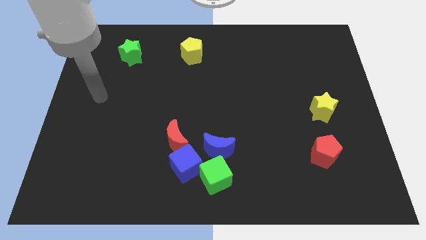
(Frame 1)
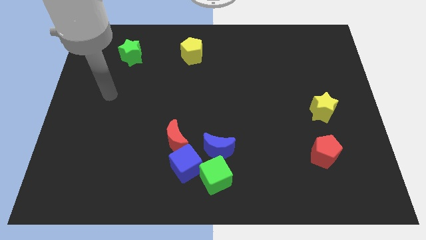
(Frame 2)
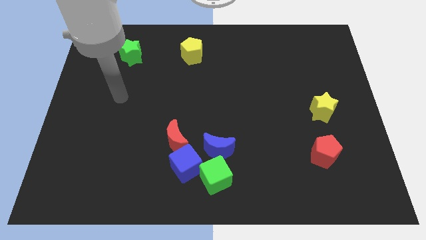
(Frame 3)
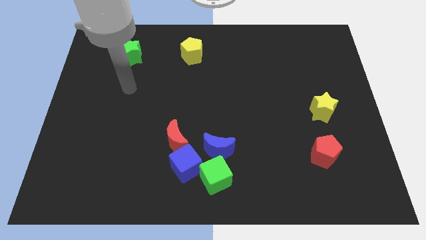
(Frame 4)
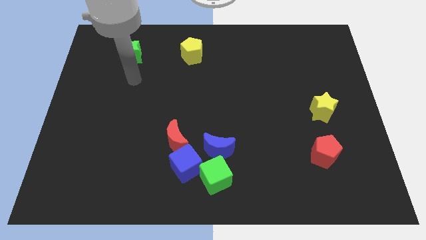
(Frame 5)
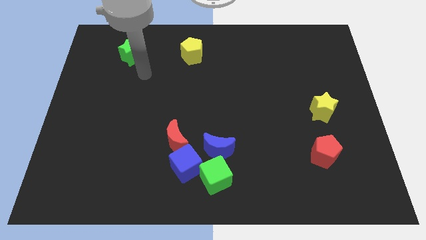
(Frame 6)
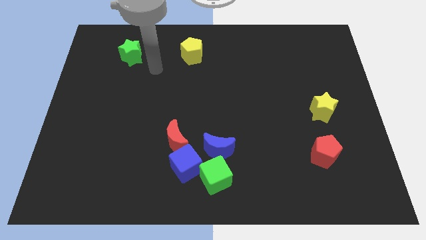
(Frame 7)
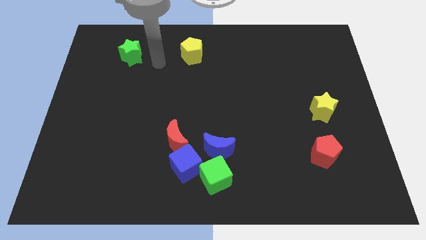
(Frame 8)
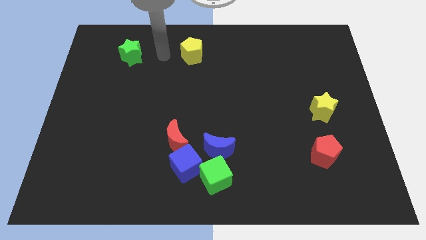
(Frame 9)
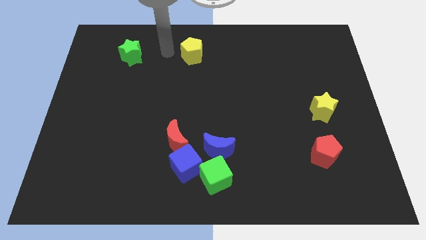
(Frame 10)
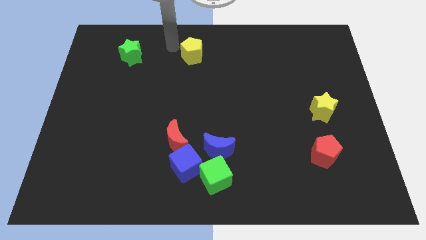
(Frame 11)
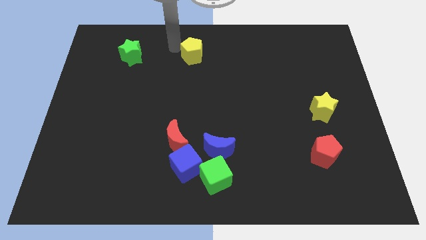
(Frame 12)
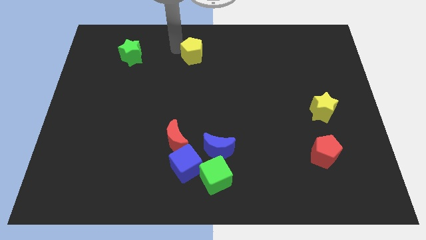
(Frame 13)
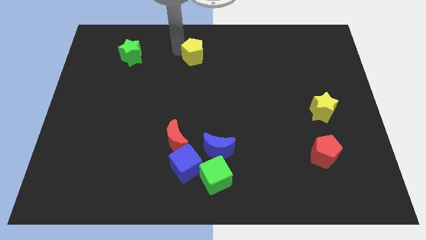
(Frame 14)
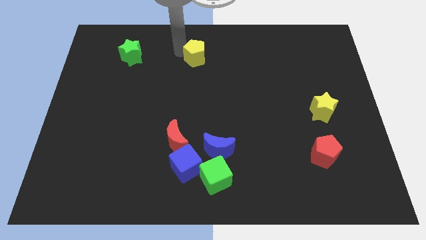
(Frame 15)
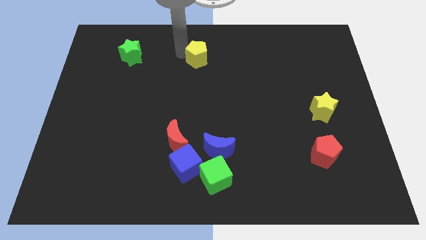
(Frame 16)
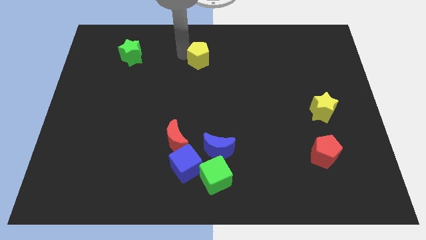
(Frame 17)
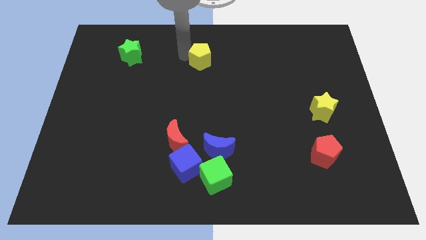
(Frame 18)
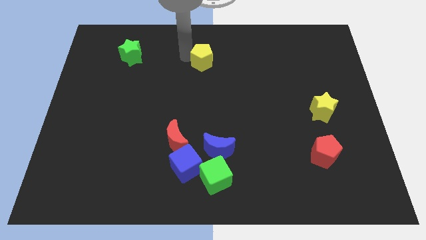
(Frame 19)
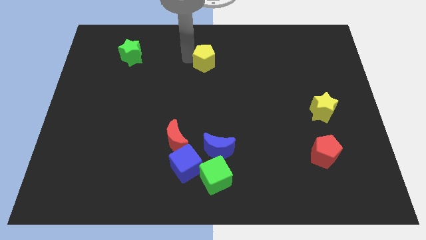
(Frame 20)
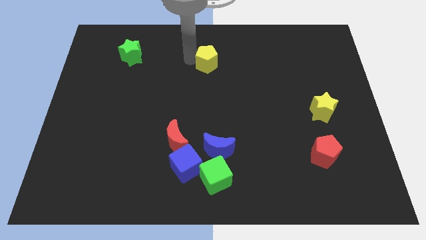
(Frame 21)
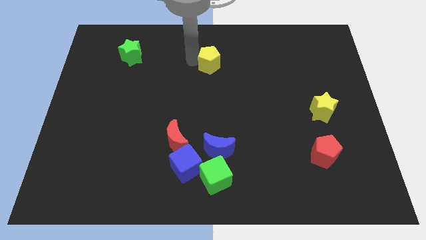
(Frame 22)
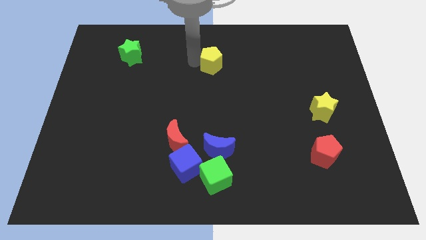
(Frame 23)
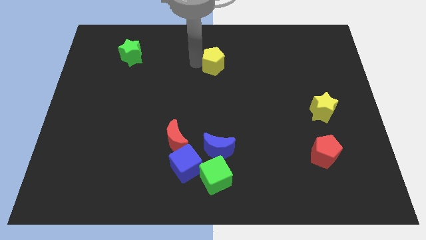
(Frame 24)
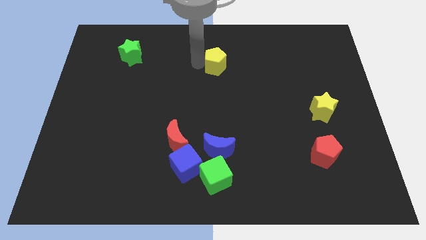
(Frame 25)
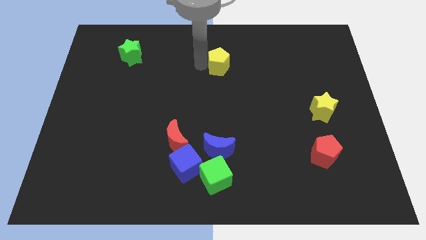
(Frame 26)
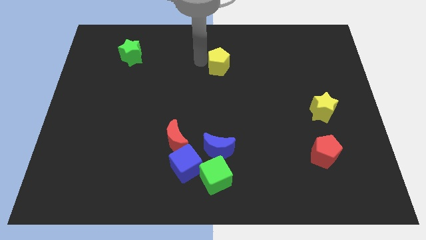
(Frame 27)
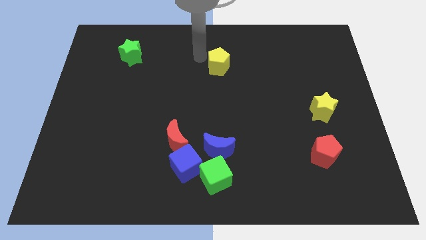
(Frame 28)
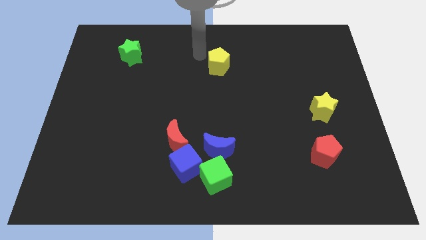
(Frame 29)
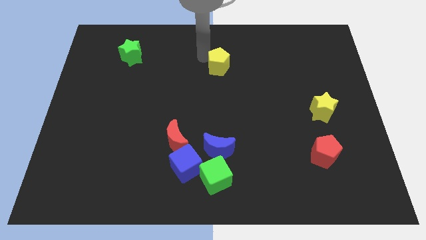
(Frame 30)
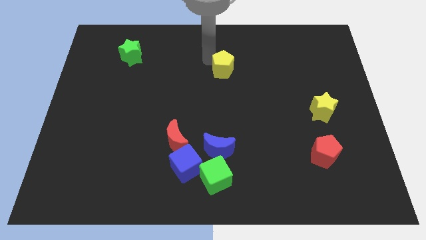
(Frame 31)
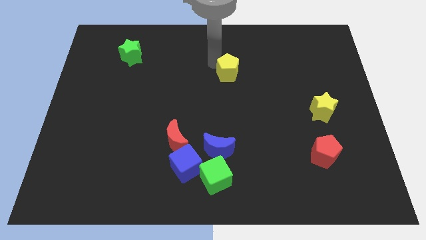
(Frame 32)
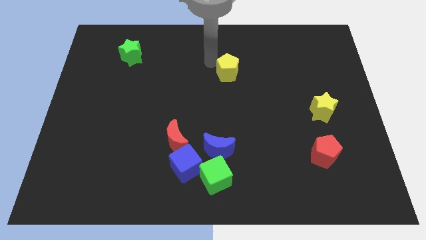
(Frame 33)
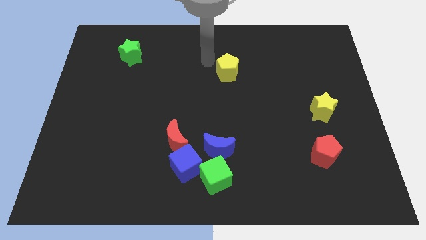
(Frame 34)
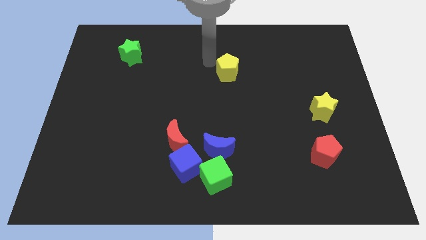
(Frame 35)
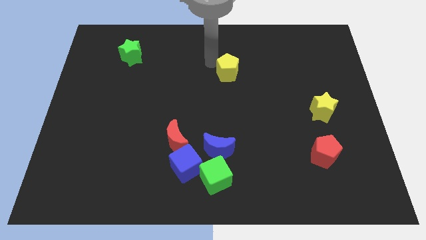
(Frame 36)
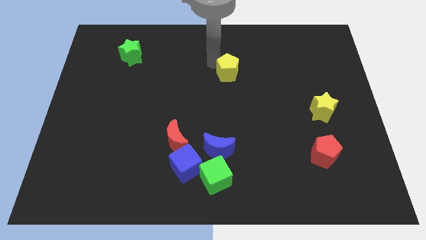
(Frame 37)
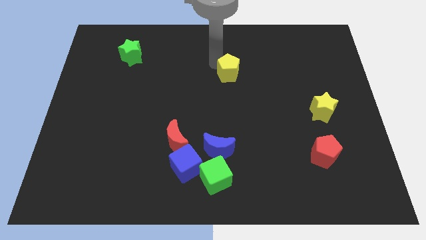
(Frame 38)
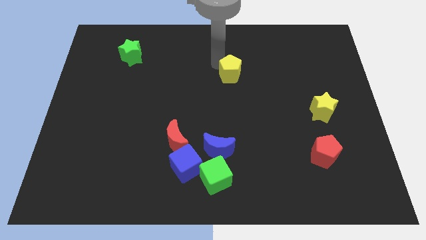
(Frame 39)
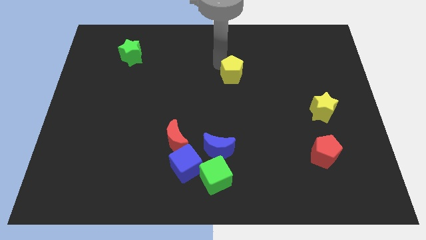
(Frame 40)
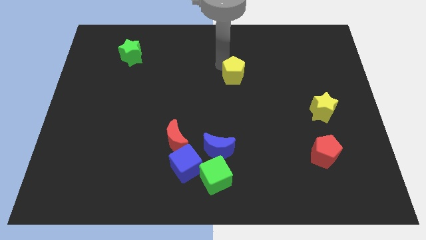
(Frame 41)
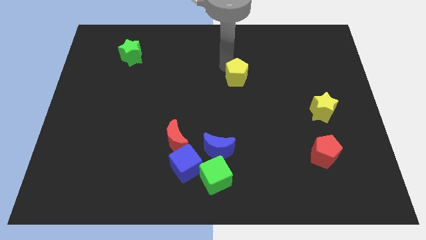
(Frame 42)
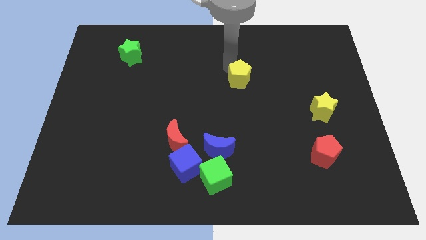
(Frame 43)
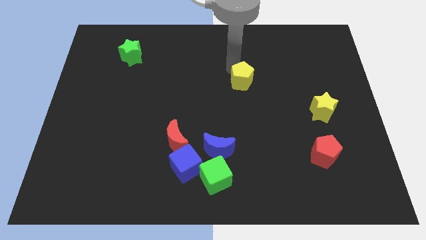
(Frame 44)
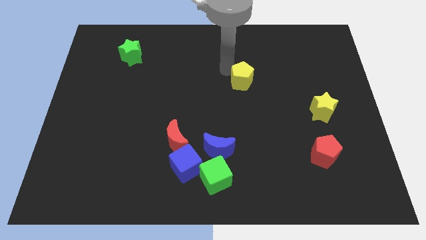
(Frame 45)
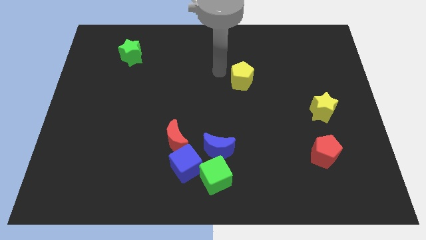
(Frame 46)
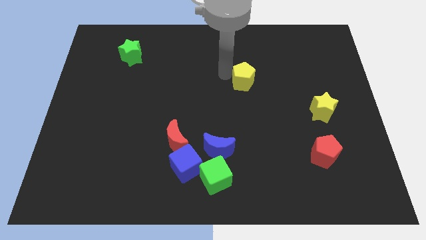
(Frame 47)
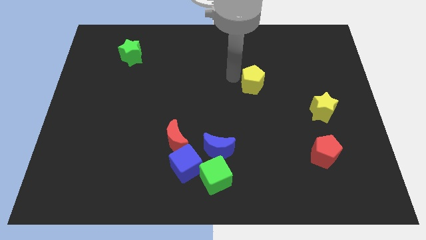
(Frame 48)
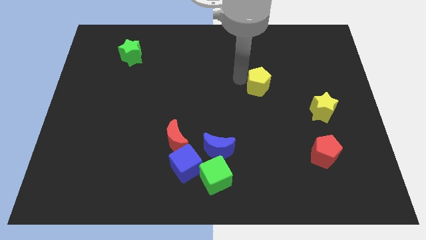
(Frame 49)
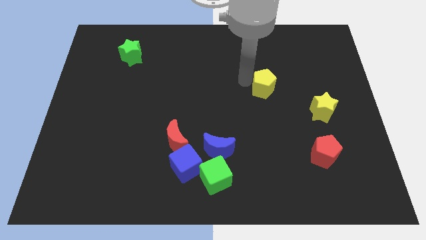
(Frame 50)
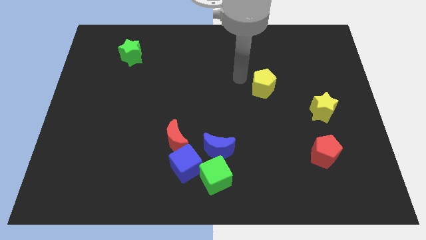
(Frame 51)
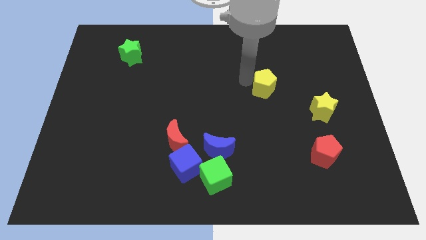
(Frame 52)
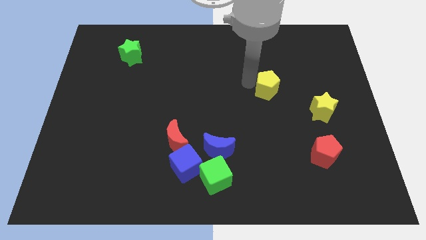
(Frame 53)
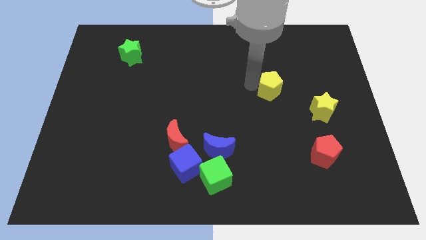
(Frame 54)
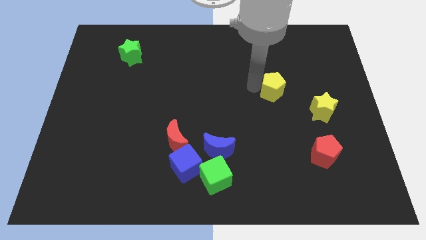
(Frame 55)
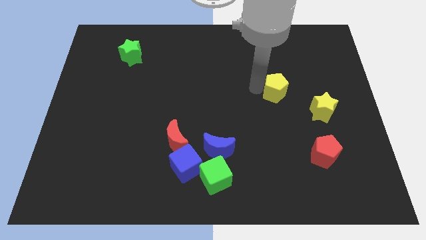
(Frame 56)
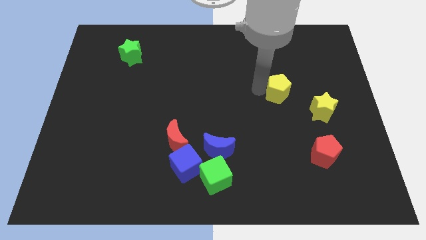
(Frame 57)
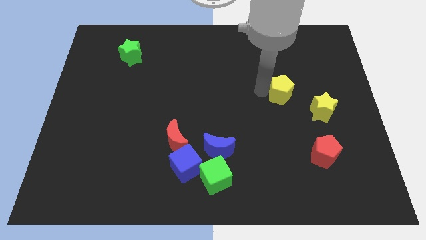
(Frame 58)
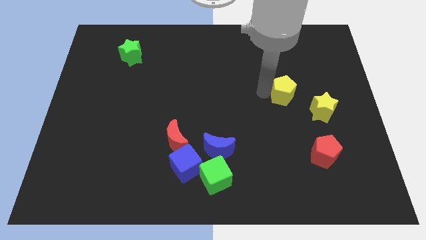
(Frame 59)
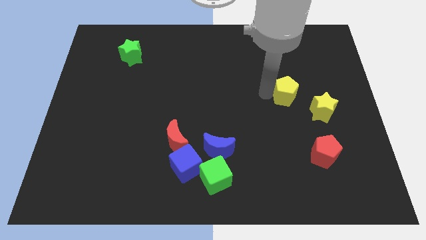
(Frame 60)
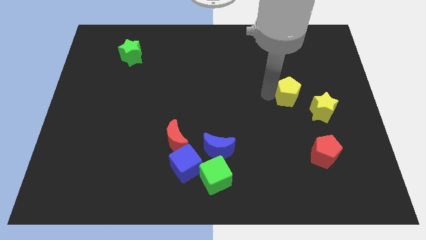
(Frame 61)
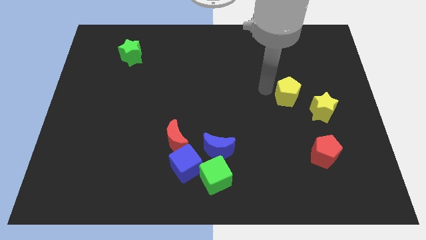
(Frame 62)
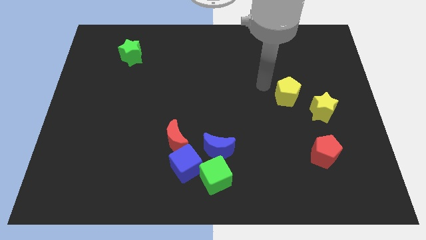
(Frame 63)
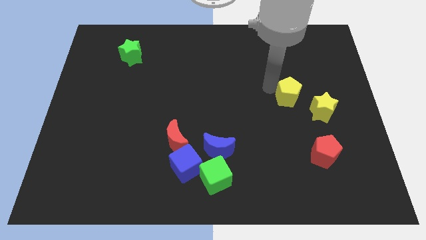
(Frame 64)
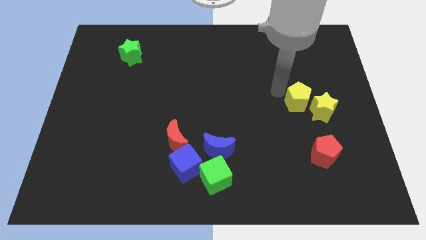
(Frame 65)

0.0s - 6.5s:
move the yellow pentagon to the yellow star

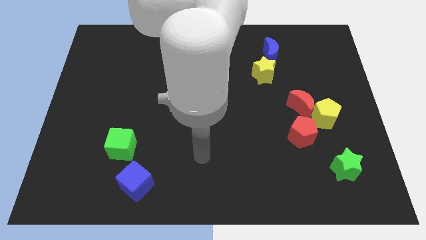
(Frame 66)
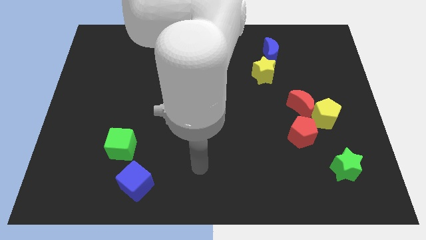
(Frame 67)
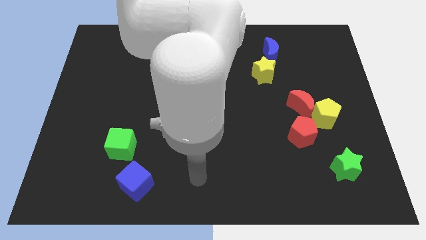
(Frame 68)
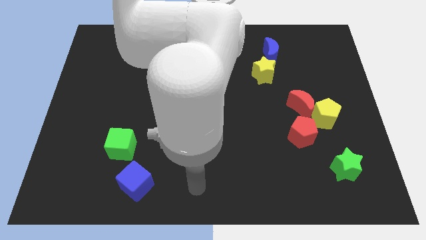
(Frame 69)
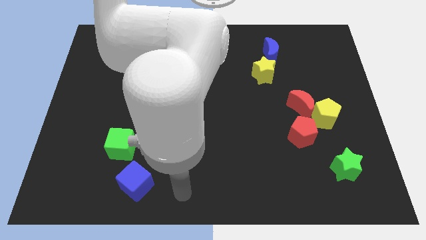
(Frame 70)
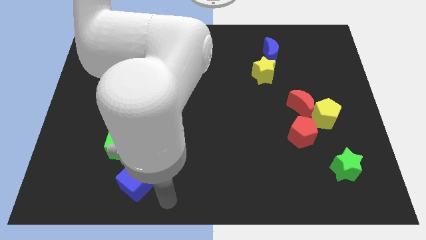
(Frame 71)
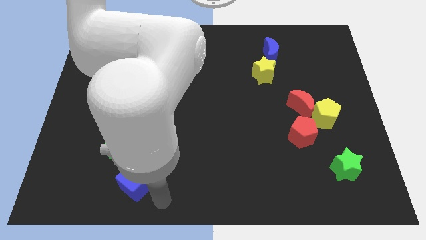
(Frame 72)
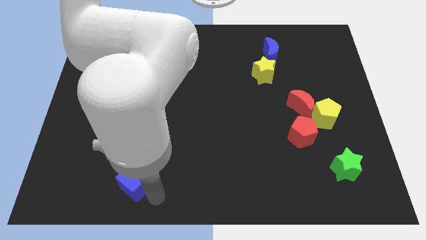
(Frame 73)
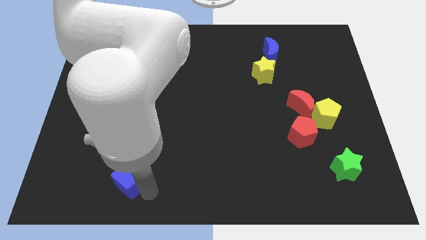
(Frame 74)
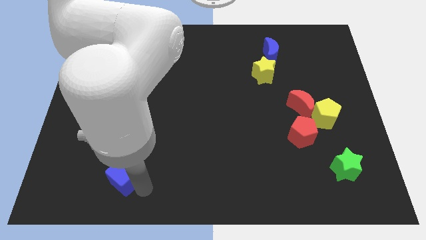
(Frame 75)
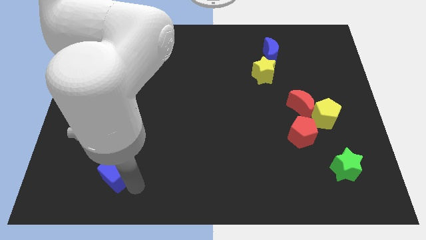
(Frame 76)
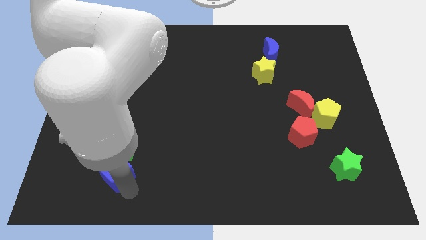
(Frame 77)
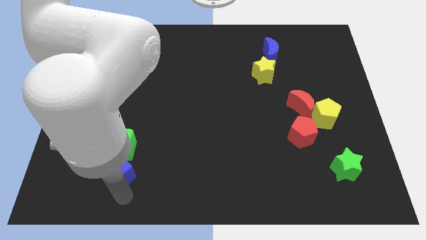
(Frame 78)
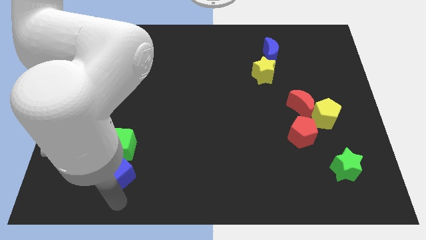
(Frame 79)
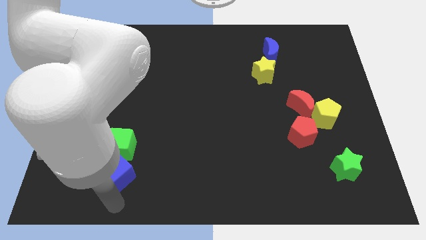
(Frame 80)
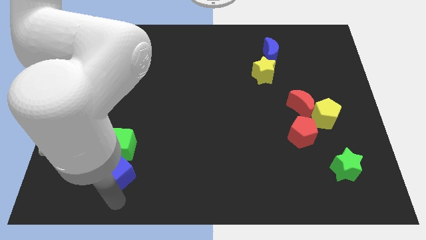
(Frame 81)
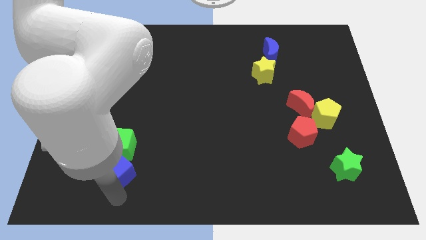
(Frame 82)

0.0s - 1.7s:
slide the blue cube to the green cube
